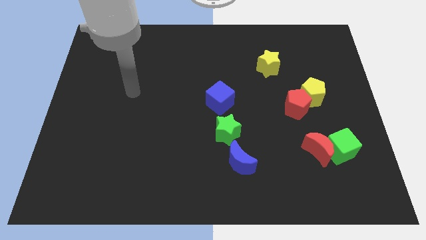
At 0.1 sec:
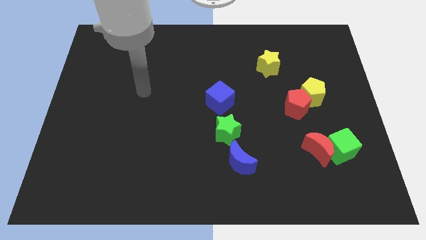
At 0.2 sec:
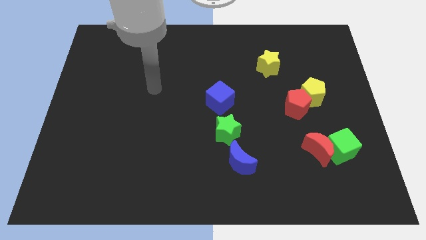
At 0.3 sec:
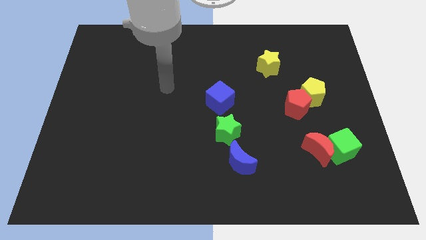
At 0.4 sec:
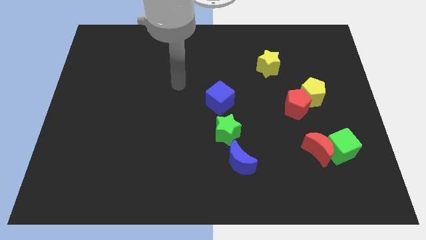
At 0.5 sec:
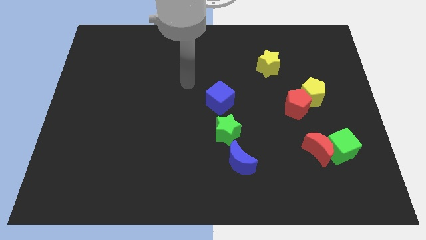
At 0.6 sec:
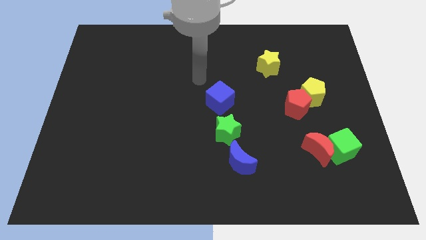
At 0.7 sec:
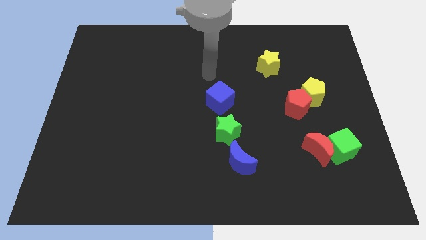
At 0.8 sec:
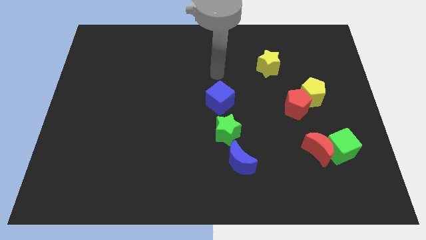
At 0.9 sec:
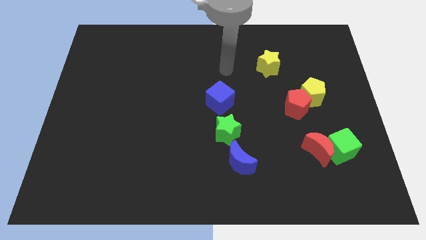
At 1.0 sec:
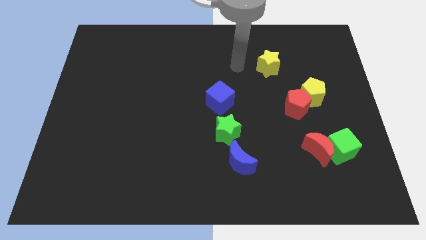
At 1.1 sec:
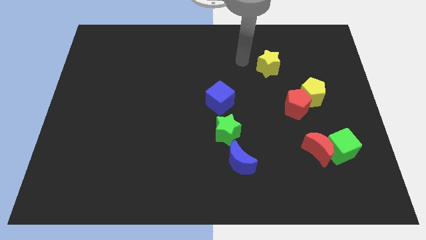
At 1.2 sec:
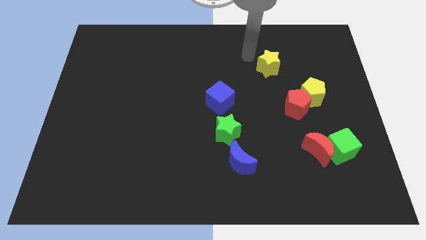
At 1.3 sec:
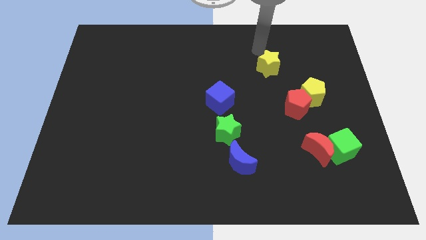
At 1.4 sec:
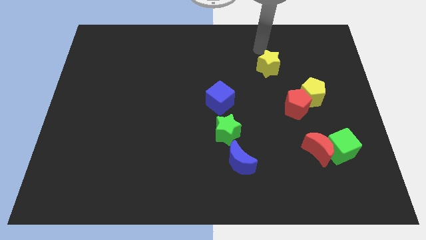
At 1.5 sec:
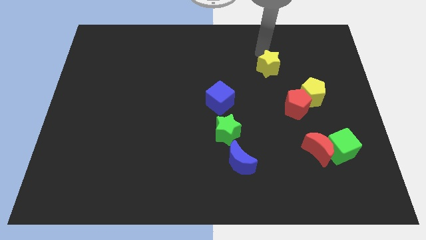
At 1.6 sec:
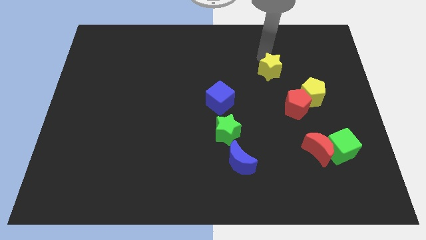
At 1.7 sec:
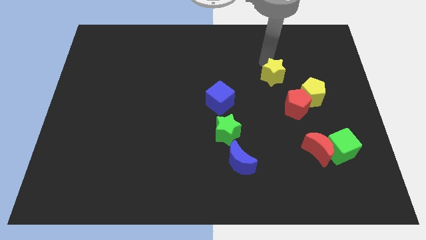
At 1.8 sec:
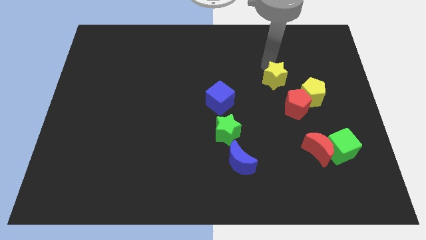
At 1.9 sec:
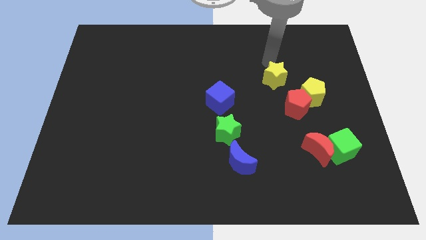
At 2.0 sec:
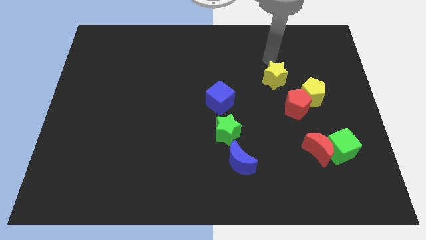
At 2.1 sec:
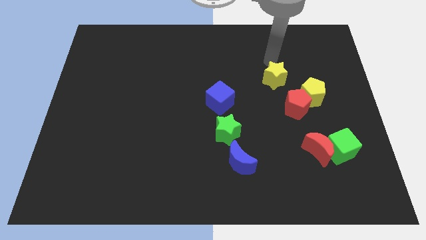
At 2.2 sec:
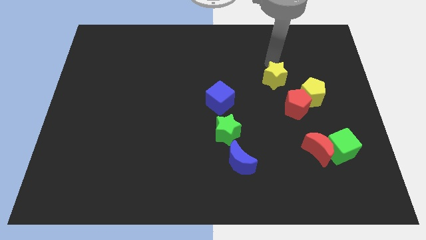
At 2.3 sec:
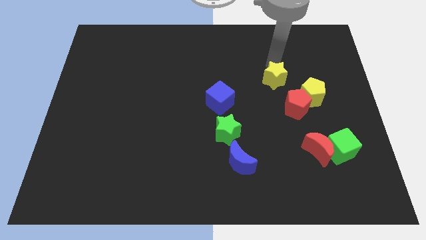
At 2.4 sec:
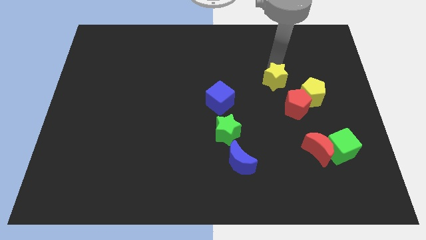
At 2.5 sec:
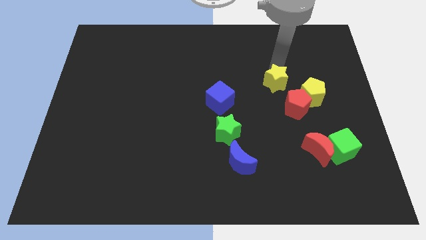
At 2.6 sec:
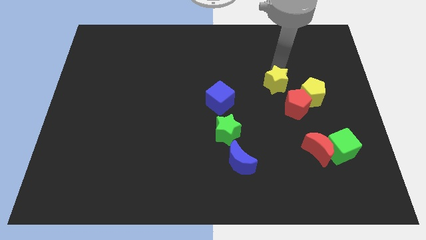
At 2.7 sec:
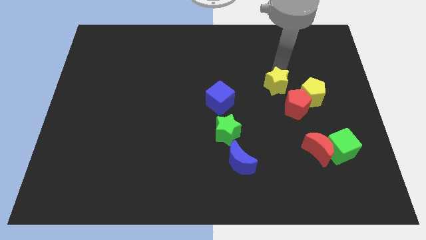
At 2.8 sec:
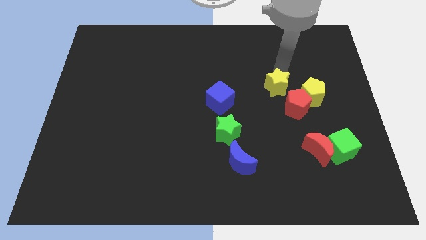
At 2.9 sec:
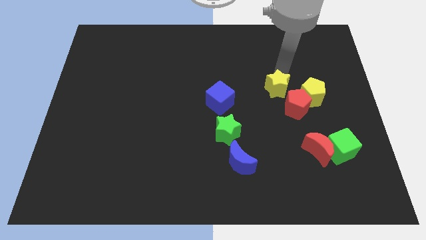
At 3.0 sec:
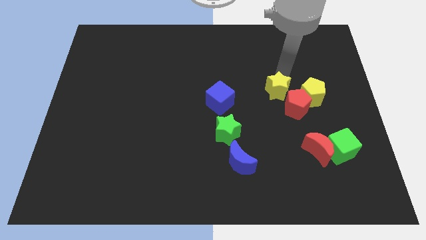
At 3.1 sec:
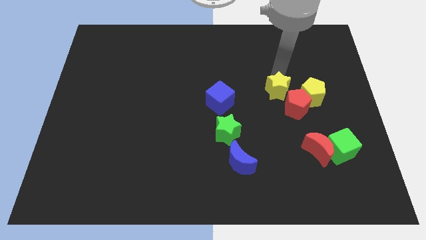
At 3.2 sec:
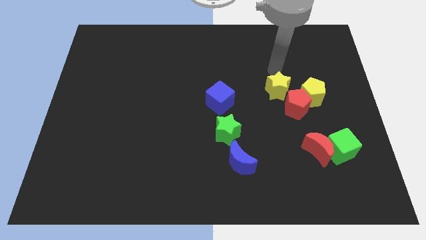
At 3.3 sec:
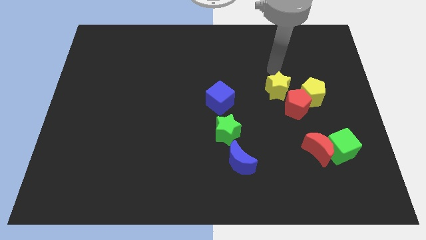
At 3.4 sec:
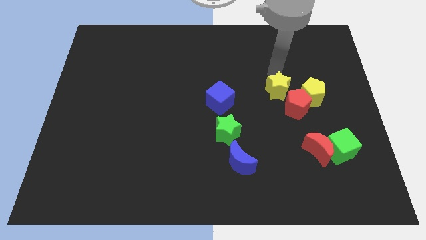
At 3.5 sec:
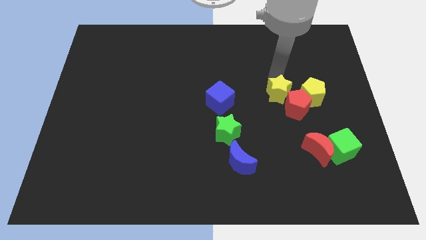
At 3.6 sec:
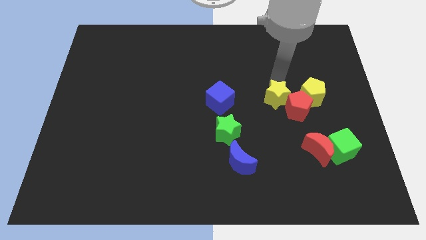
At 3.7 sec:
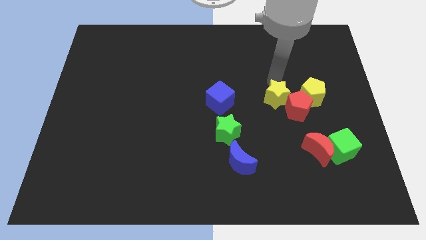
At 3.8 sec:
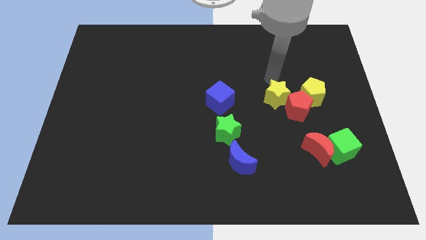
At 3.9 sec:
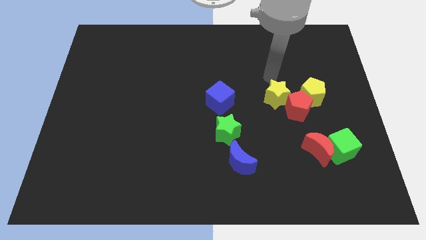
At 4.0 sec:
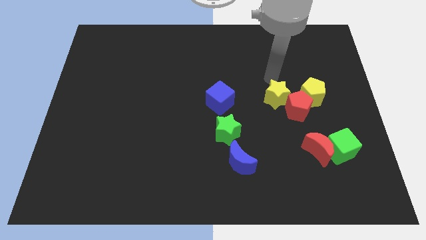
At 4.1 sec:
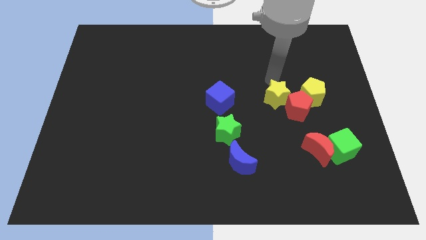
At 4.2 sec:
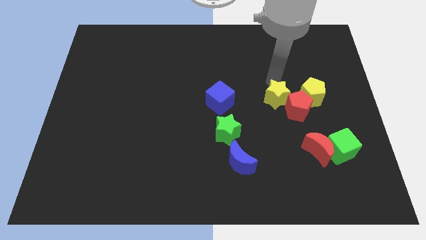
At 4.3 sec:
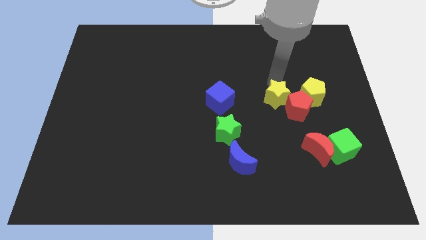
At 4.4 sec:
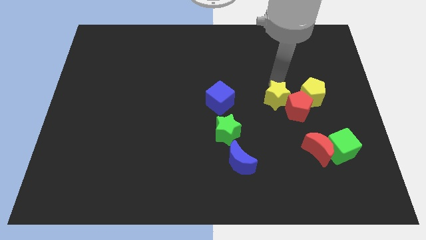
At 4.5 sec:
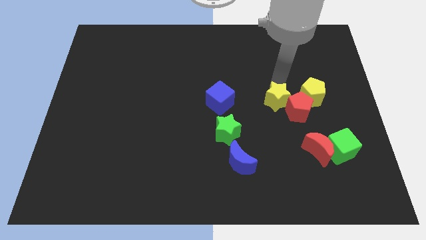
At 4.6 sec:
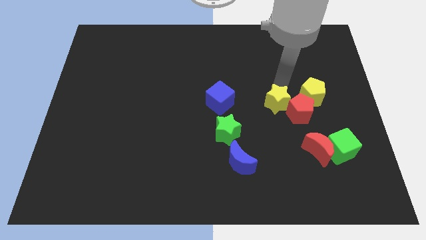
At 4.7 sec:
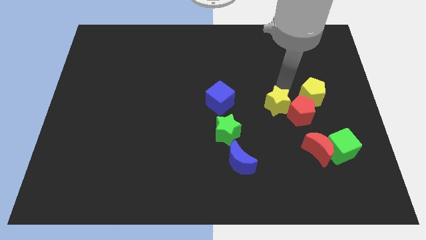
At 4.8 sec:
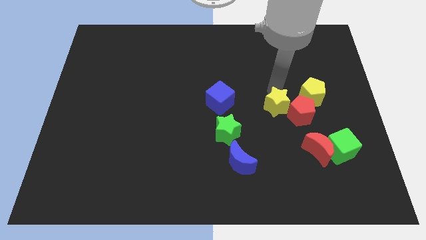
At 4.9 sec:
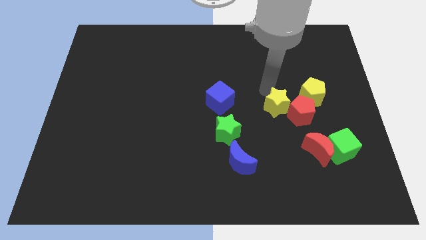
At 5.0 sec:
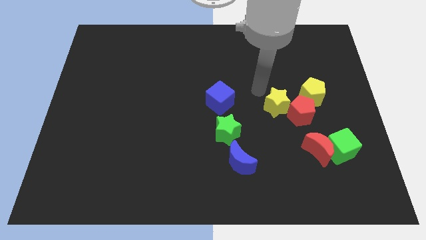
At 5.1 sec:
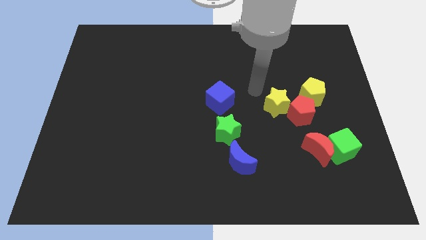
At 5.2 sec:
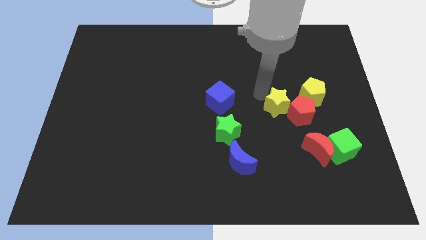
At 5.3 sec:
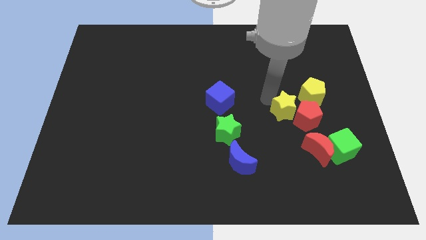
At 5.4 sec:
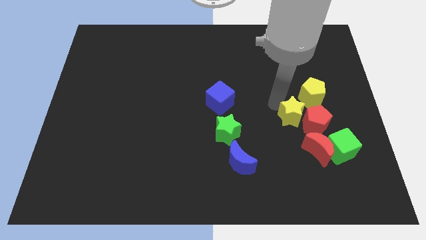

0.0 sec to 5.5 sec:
slide the yellow star to the top left of the green cube
